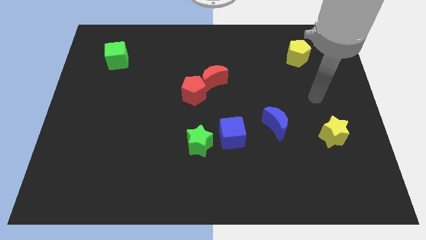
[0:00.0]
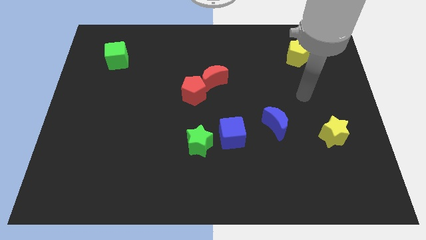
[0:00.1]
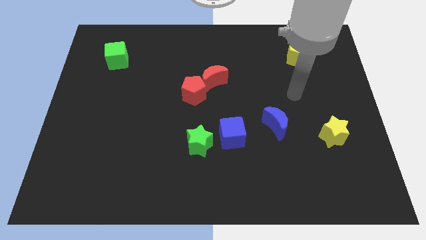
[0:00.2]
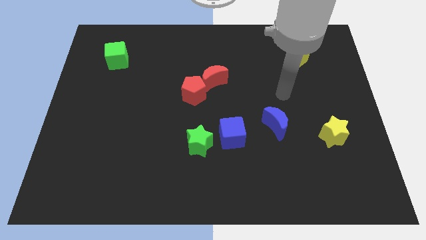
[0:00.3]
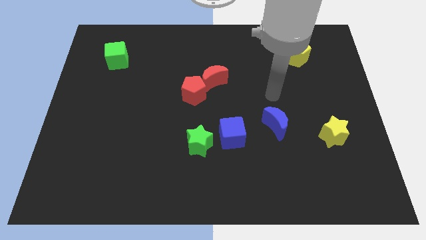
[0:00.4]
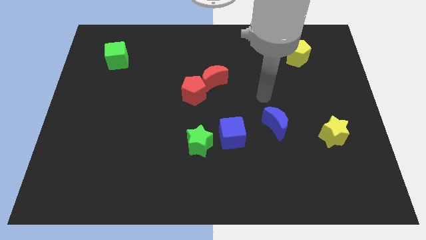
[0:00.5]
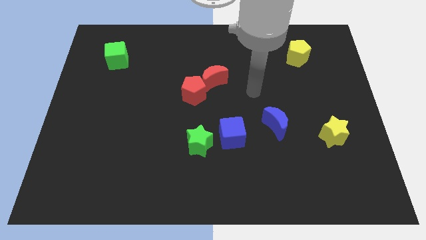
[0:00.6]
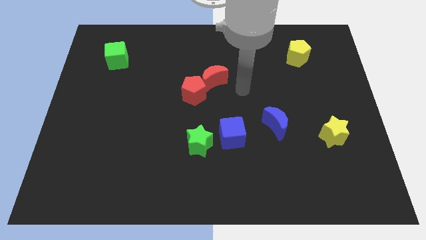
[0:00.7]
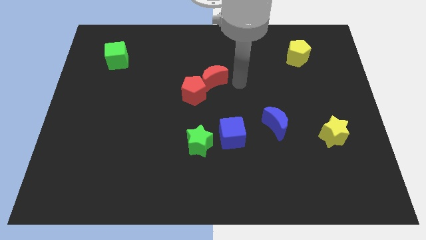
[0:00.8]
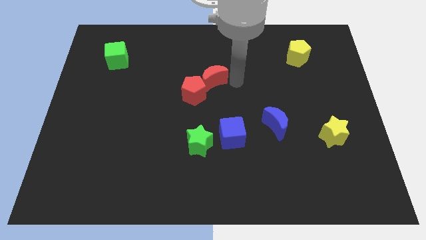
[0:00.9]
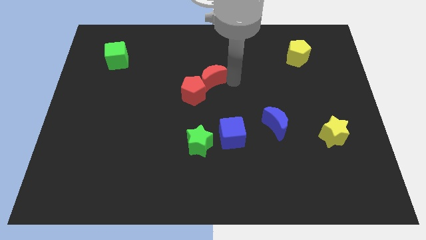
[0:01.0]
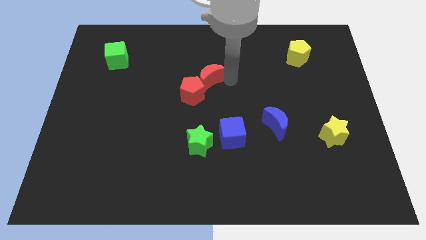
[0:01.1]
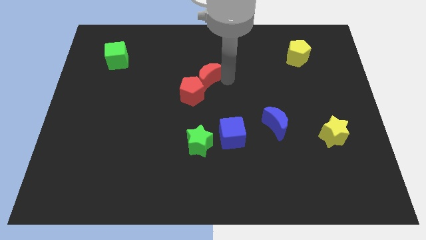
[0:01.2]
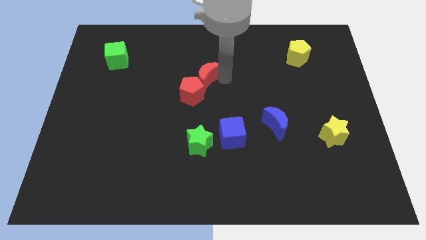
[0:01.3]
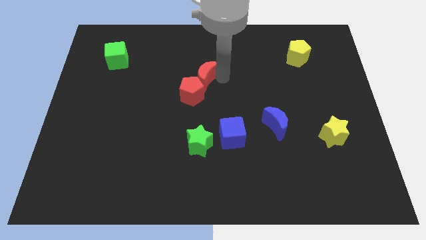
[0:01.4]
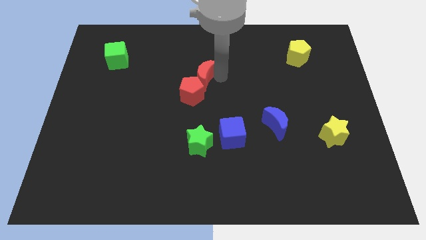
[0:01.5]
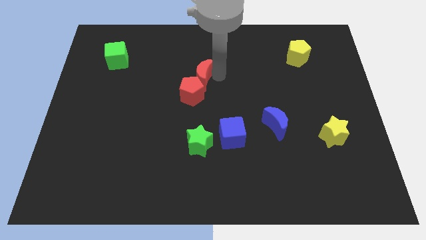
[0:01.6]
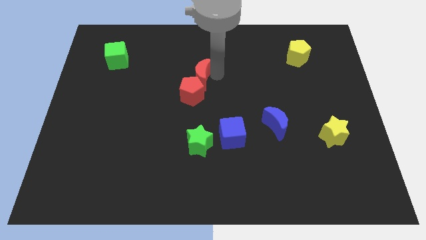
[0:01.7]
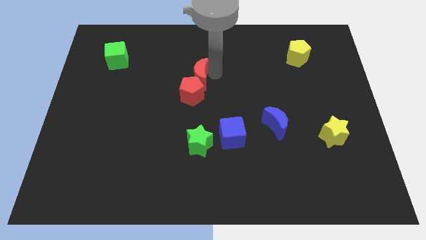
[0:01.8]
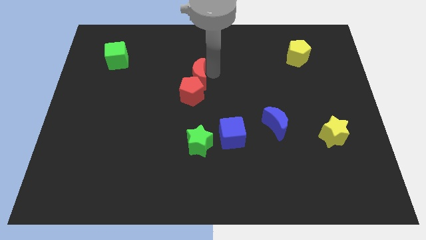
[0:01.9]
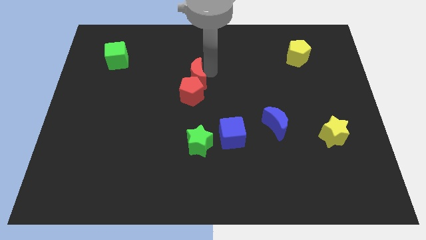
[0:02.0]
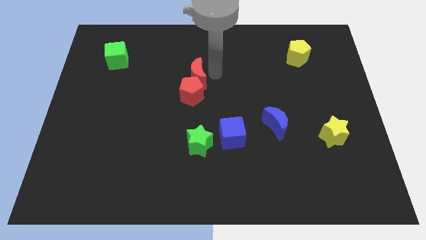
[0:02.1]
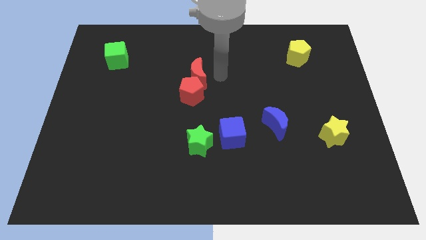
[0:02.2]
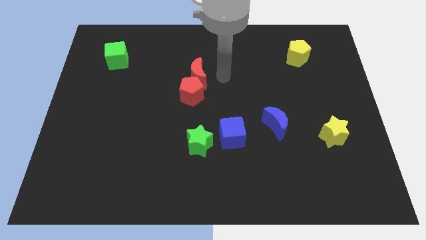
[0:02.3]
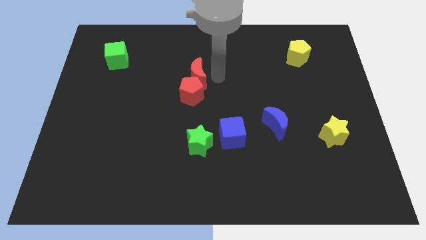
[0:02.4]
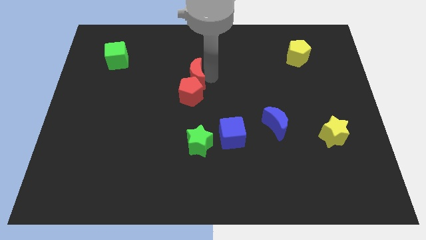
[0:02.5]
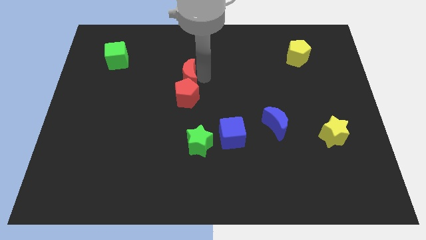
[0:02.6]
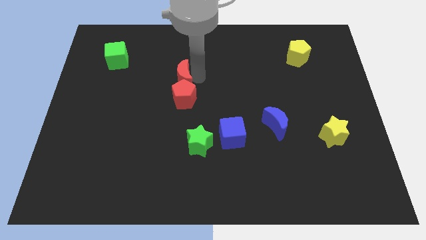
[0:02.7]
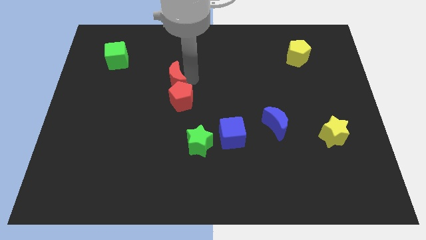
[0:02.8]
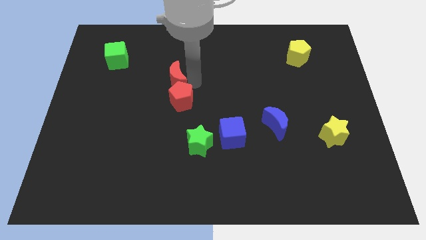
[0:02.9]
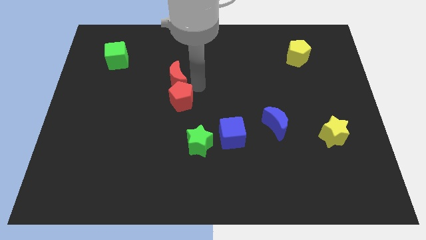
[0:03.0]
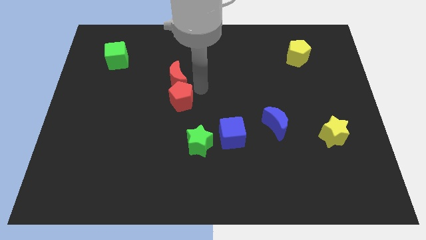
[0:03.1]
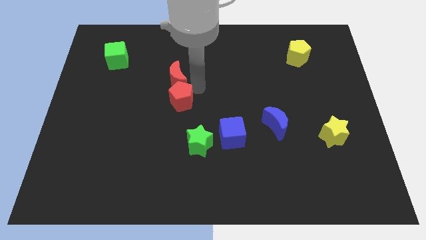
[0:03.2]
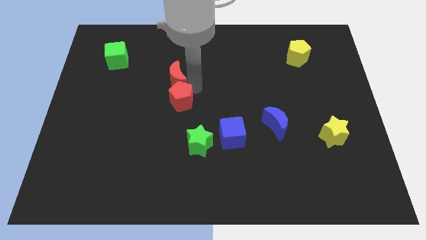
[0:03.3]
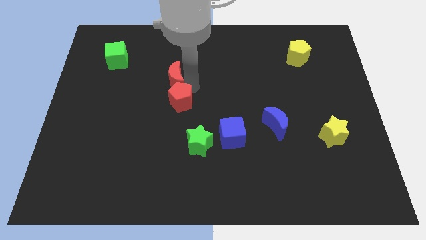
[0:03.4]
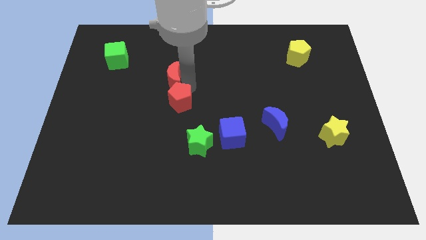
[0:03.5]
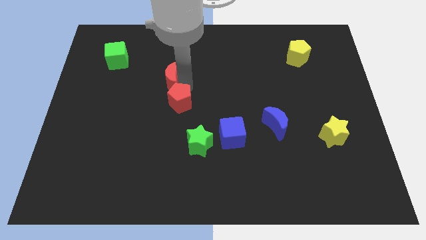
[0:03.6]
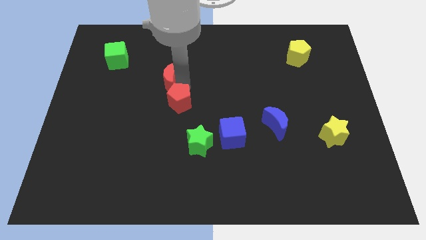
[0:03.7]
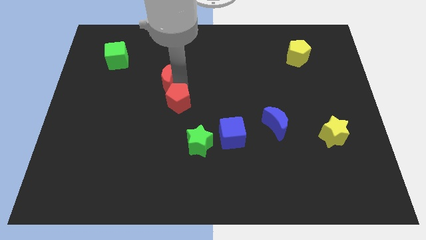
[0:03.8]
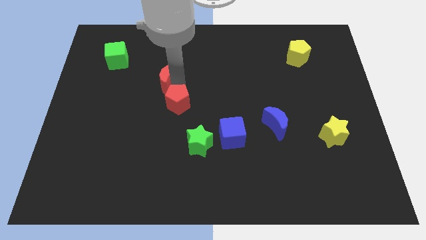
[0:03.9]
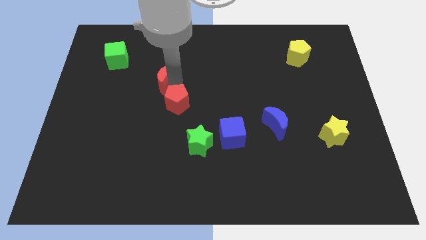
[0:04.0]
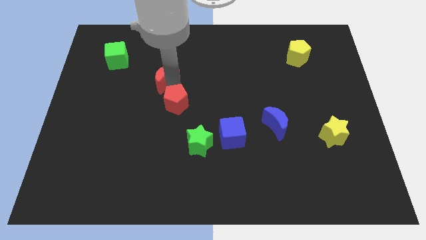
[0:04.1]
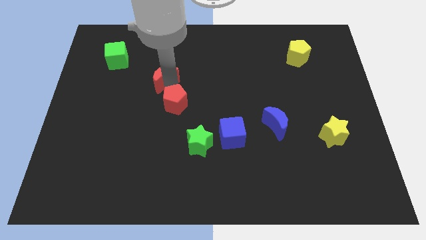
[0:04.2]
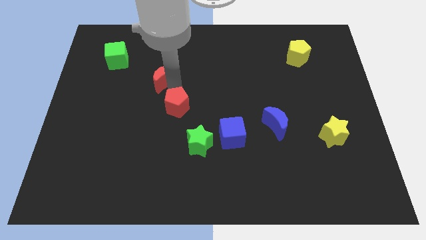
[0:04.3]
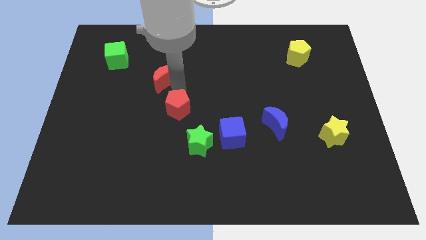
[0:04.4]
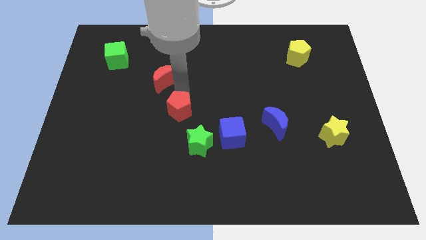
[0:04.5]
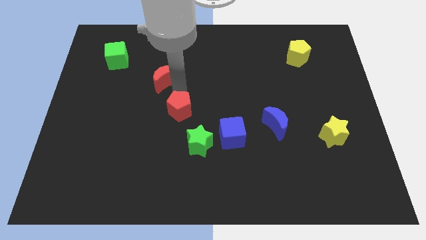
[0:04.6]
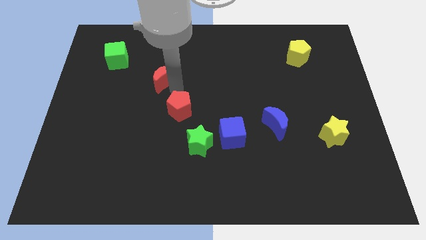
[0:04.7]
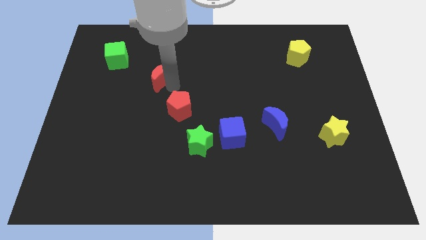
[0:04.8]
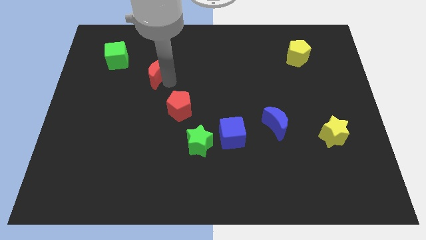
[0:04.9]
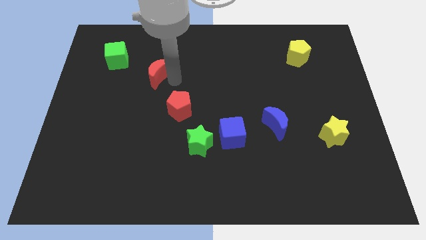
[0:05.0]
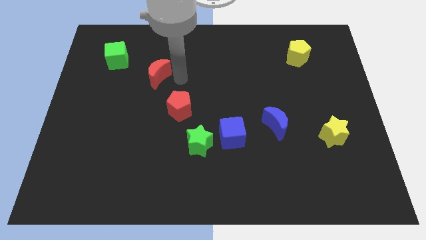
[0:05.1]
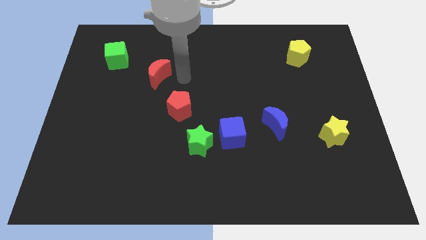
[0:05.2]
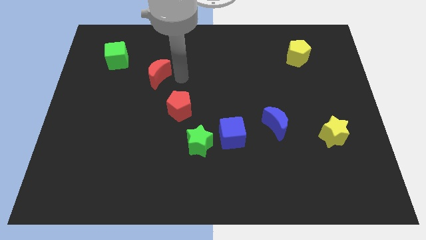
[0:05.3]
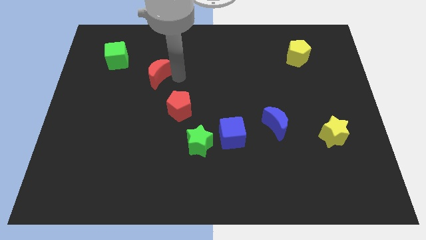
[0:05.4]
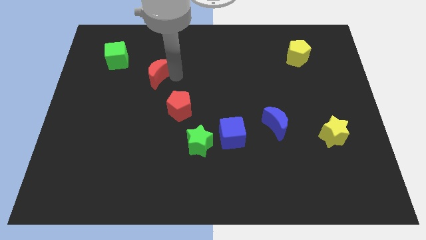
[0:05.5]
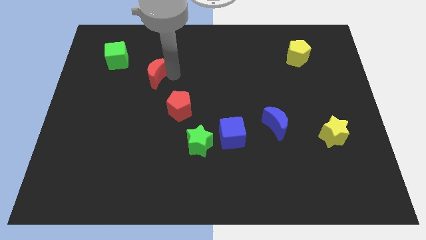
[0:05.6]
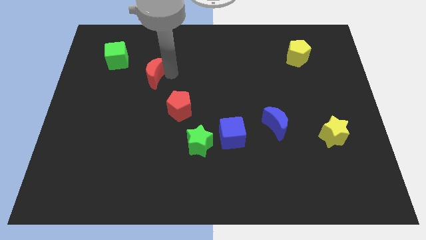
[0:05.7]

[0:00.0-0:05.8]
put the red moon to the bottom right of the green cube

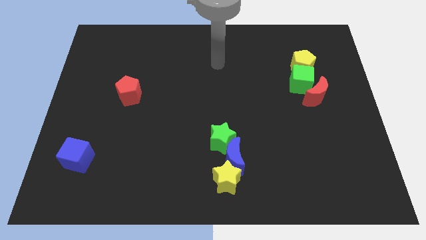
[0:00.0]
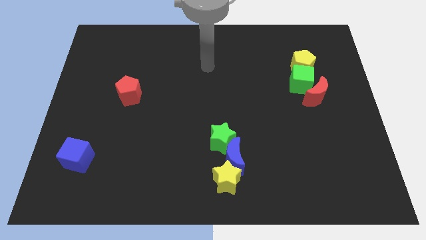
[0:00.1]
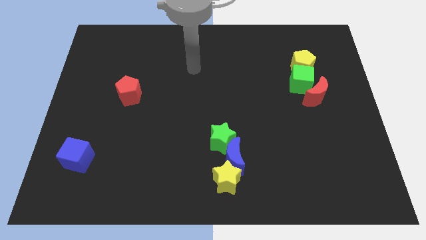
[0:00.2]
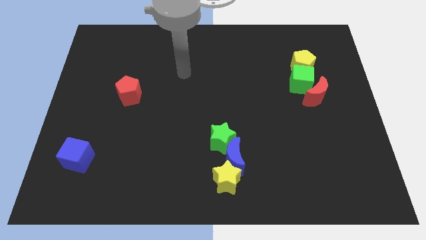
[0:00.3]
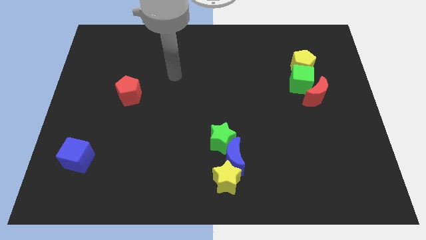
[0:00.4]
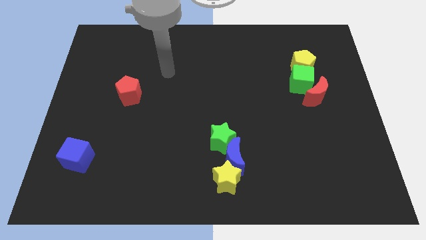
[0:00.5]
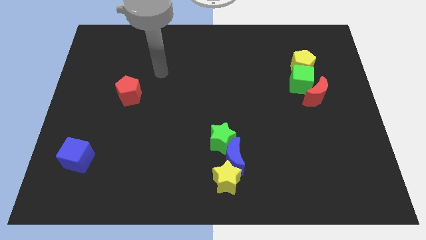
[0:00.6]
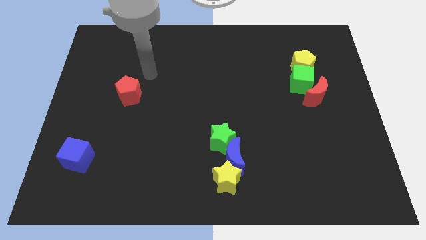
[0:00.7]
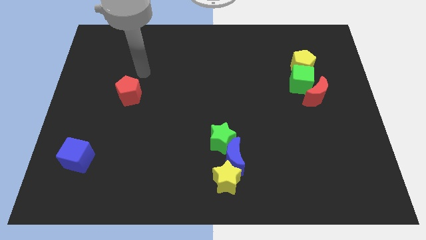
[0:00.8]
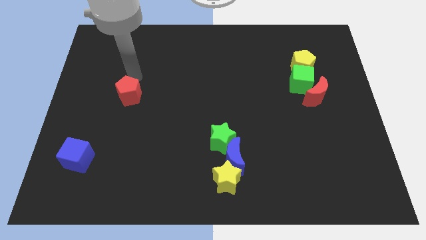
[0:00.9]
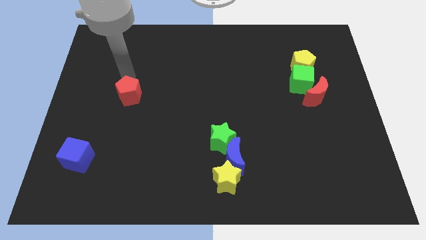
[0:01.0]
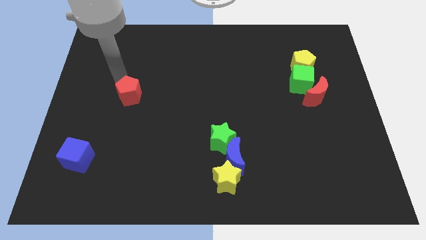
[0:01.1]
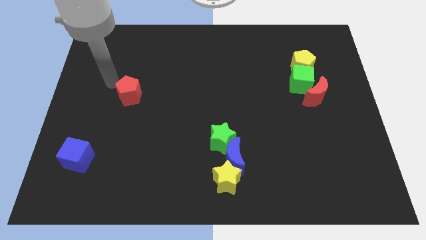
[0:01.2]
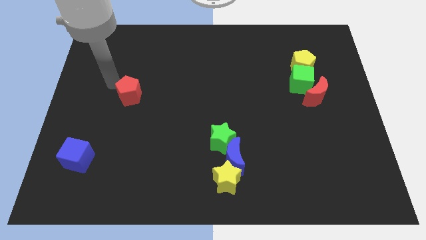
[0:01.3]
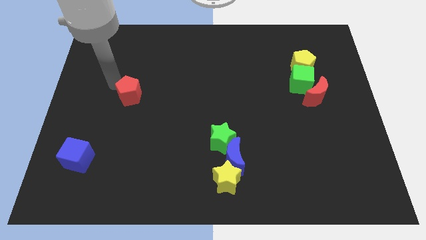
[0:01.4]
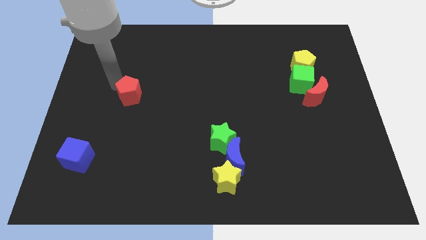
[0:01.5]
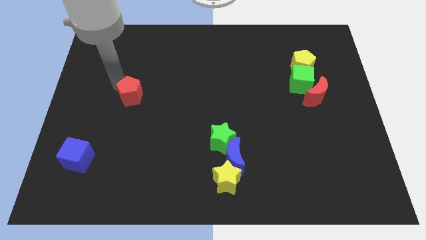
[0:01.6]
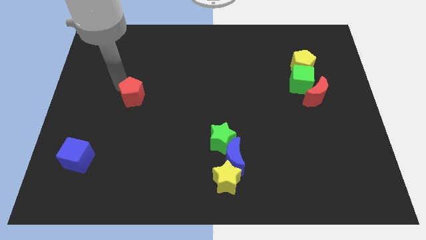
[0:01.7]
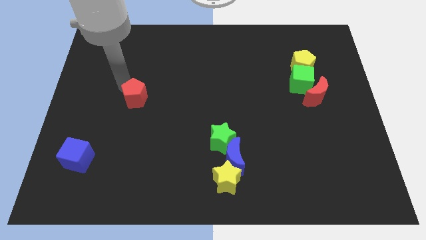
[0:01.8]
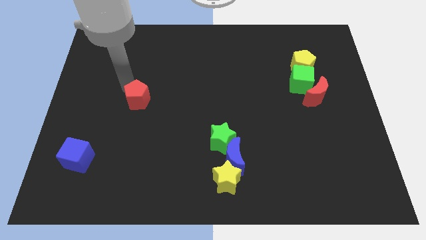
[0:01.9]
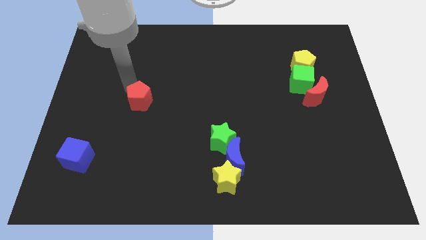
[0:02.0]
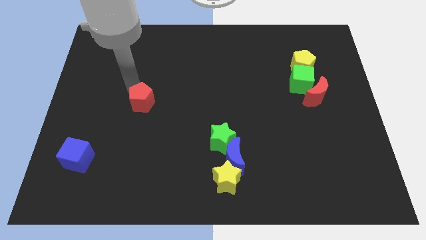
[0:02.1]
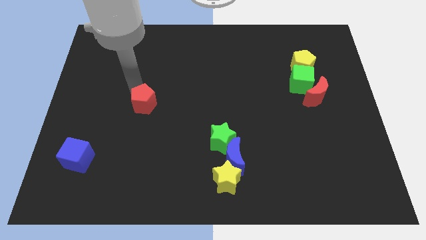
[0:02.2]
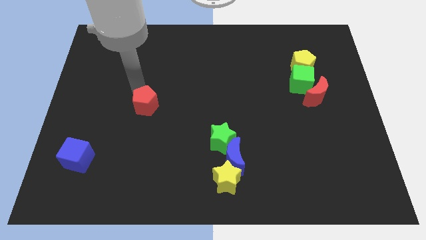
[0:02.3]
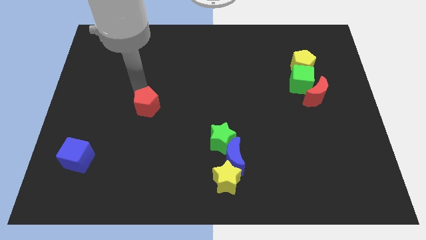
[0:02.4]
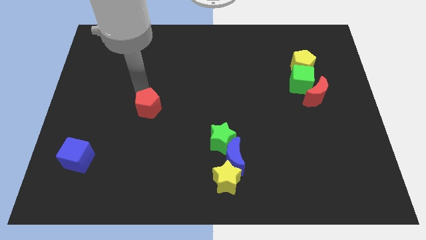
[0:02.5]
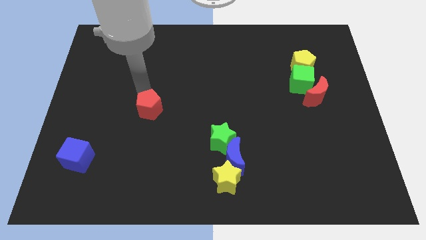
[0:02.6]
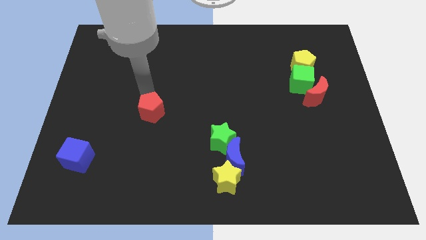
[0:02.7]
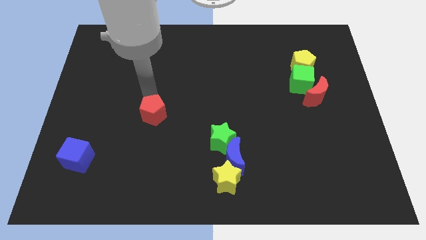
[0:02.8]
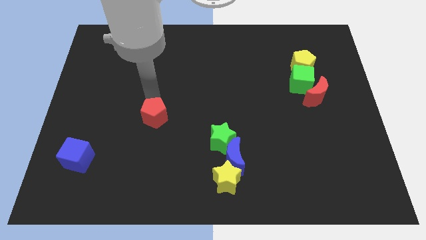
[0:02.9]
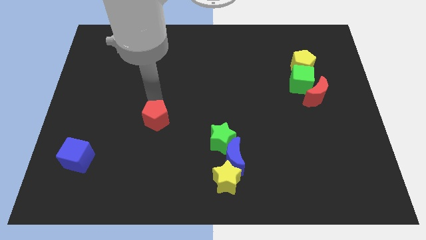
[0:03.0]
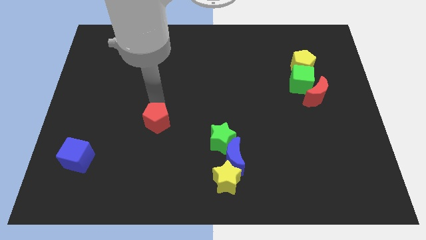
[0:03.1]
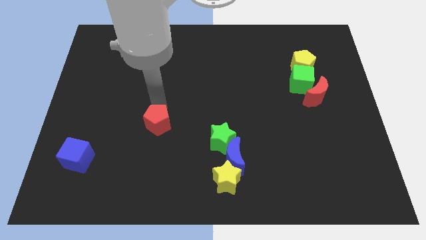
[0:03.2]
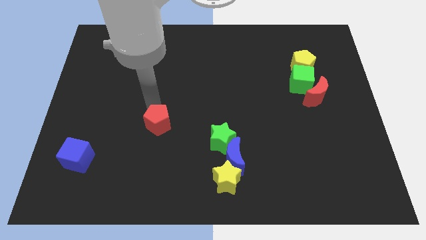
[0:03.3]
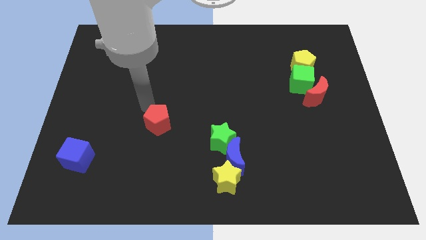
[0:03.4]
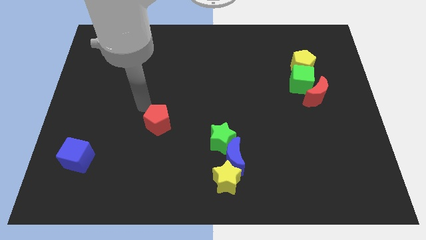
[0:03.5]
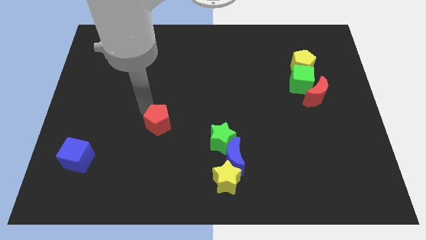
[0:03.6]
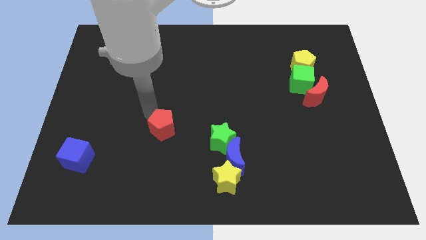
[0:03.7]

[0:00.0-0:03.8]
push the red pentagon left of the green star
